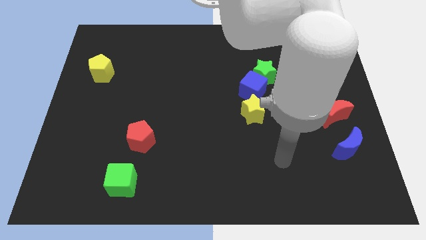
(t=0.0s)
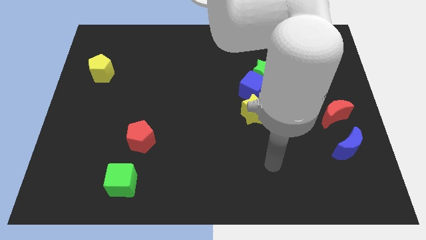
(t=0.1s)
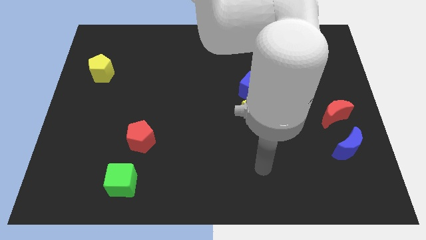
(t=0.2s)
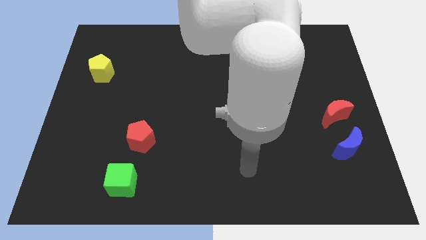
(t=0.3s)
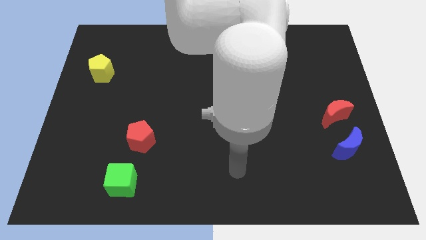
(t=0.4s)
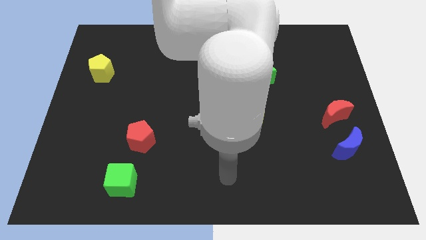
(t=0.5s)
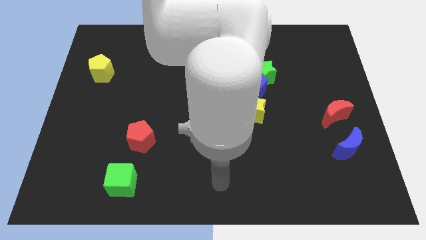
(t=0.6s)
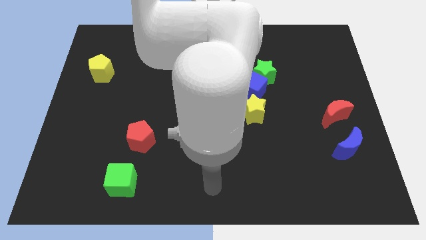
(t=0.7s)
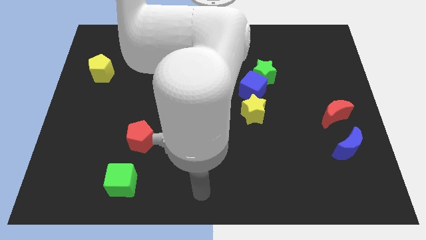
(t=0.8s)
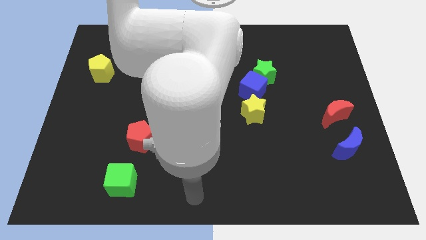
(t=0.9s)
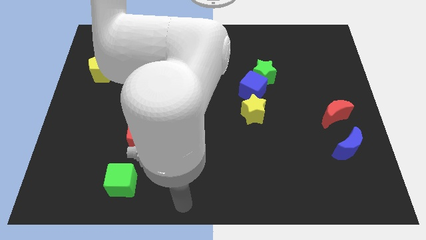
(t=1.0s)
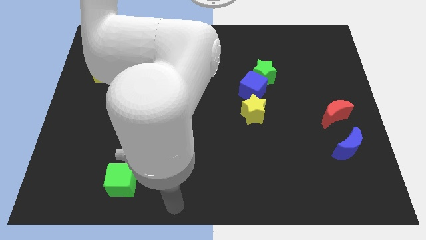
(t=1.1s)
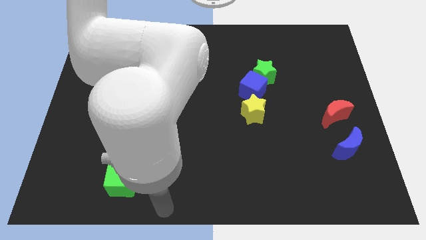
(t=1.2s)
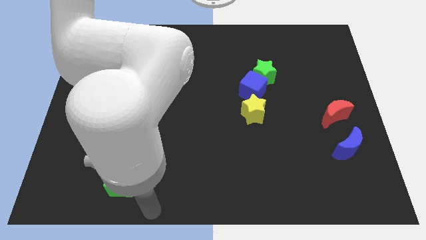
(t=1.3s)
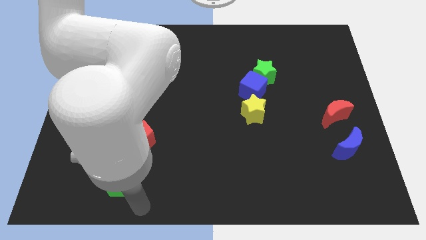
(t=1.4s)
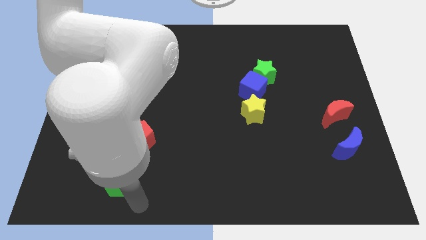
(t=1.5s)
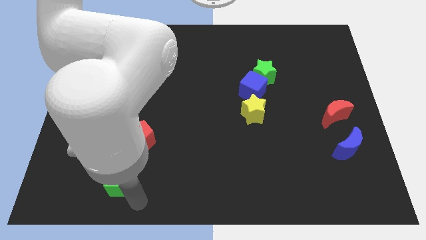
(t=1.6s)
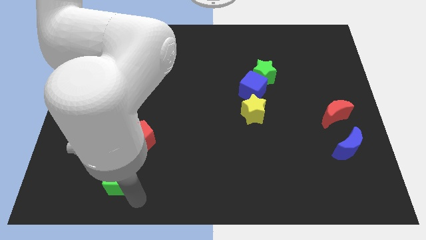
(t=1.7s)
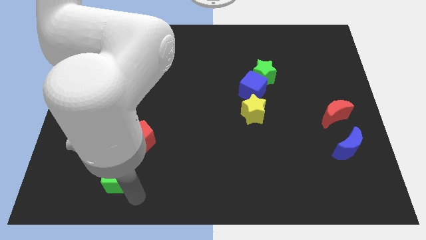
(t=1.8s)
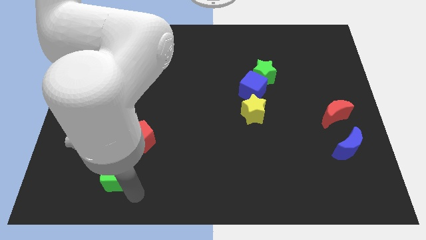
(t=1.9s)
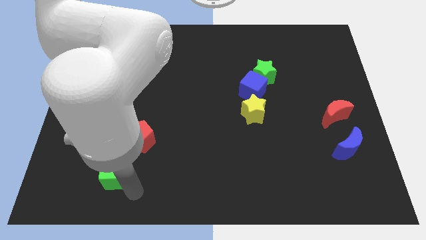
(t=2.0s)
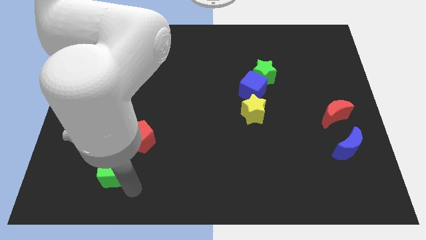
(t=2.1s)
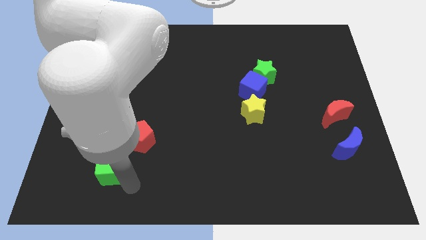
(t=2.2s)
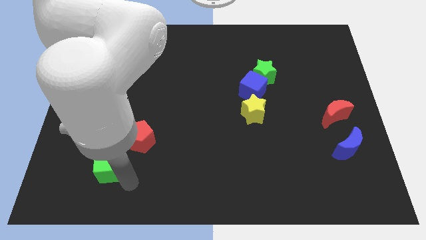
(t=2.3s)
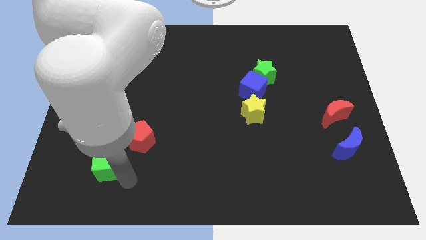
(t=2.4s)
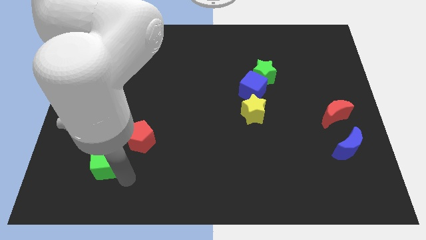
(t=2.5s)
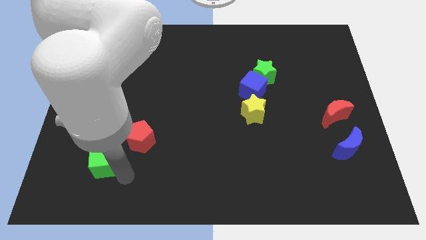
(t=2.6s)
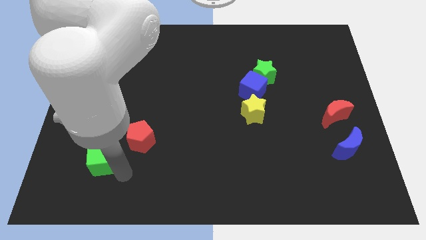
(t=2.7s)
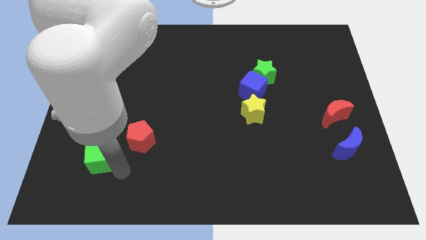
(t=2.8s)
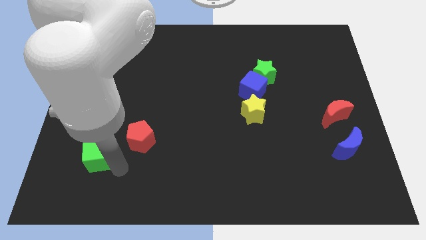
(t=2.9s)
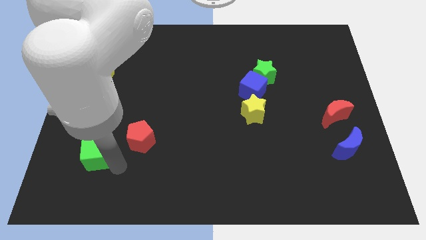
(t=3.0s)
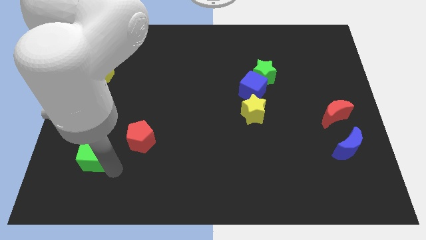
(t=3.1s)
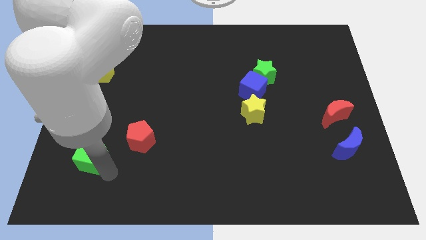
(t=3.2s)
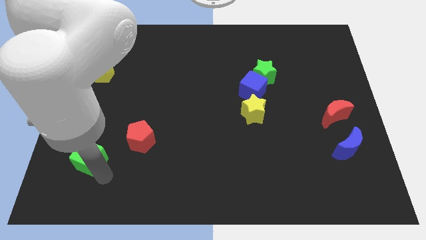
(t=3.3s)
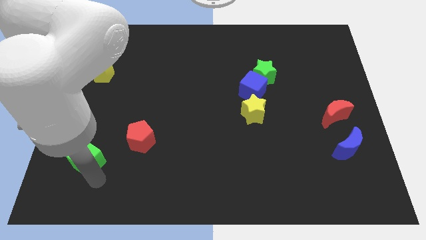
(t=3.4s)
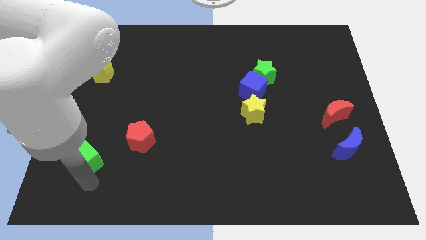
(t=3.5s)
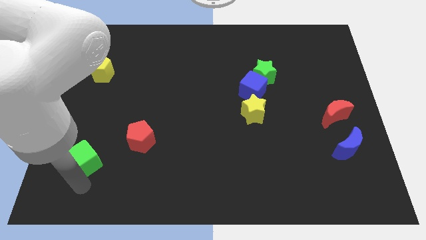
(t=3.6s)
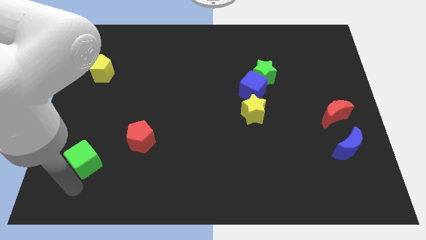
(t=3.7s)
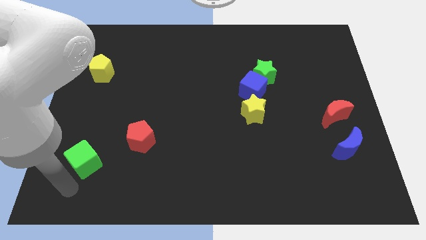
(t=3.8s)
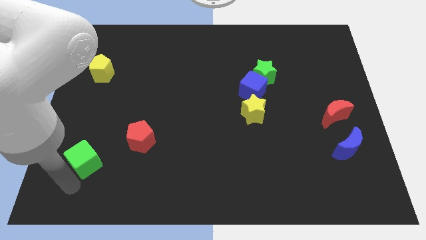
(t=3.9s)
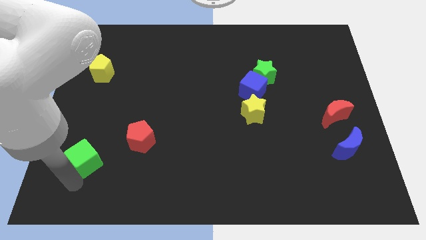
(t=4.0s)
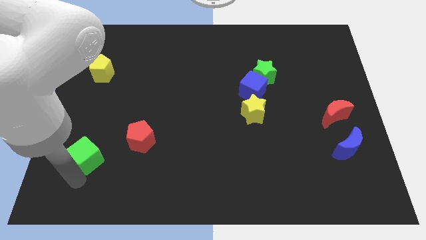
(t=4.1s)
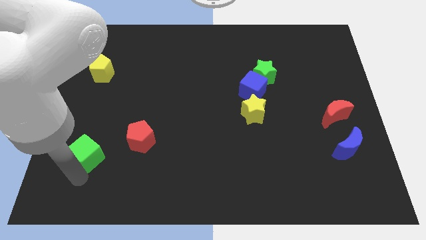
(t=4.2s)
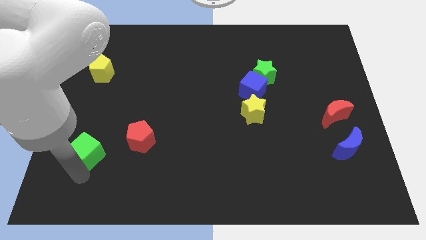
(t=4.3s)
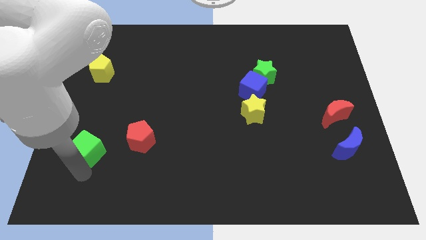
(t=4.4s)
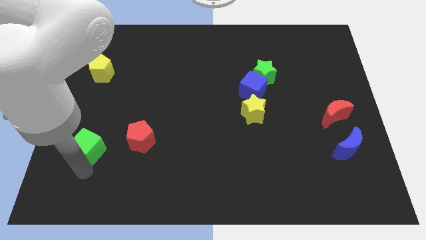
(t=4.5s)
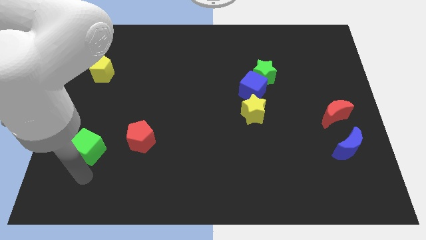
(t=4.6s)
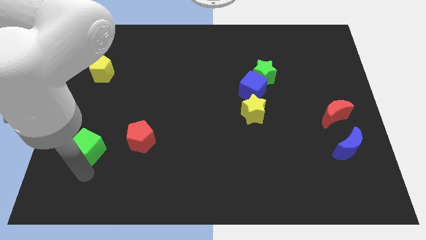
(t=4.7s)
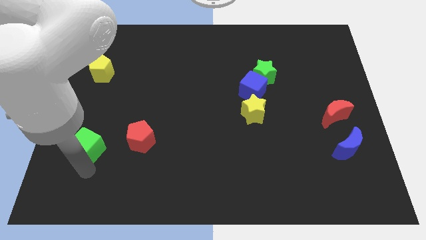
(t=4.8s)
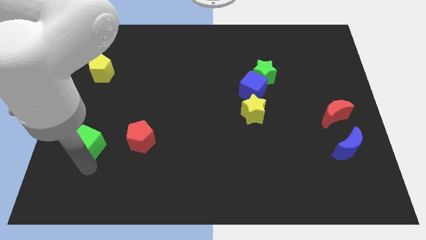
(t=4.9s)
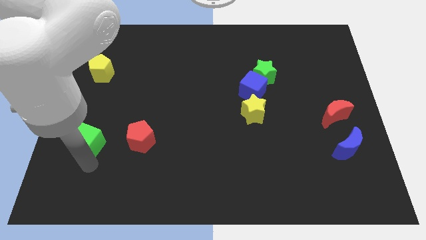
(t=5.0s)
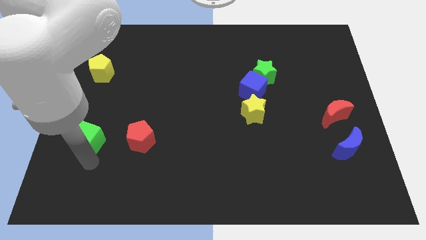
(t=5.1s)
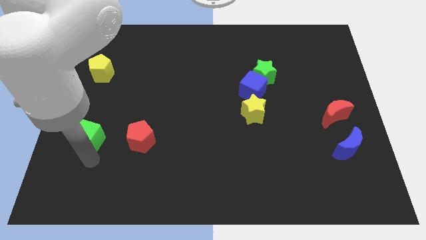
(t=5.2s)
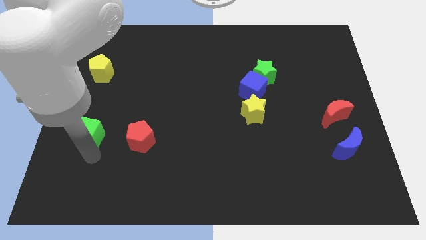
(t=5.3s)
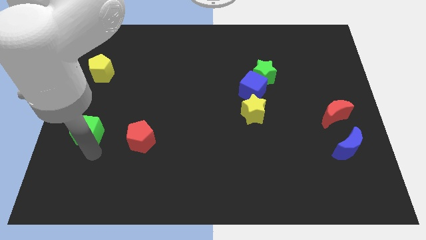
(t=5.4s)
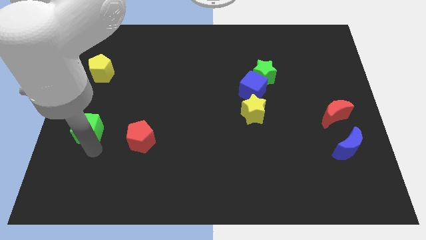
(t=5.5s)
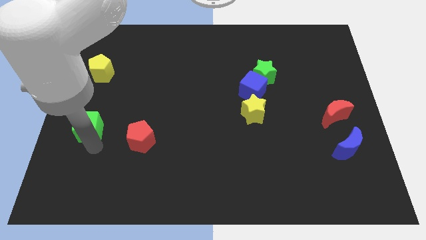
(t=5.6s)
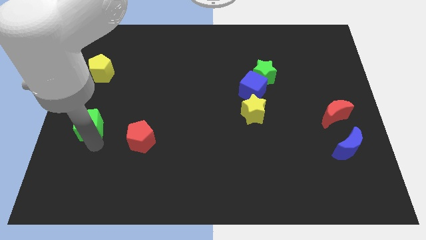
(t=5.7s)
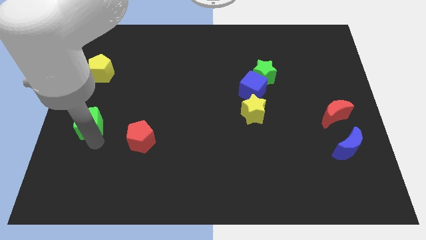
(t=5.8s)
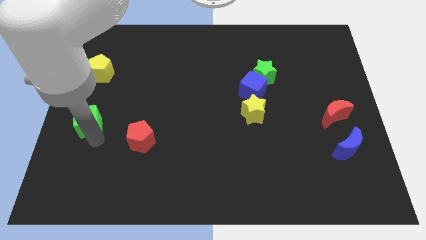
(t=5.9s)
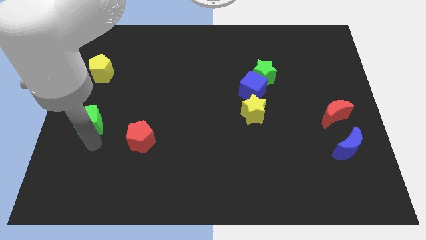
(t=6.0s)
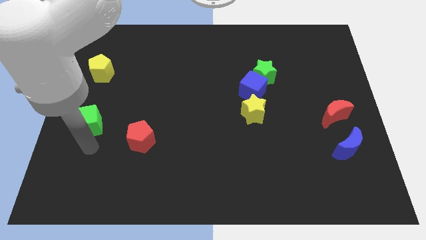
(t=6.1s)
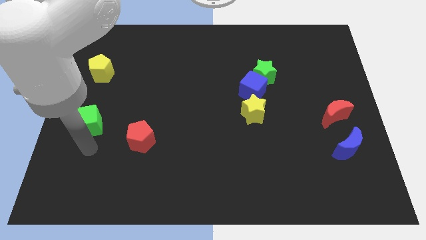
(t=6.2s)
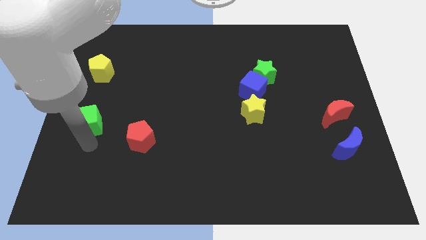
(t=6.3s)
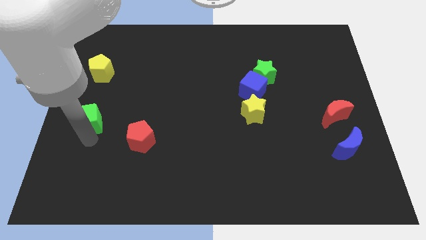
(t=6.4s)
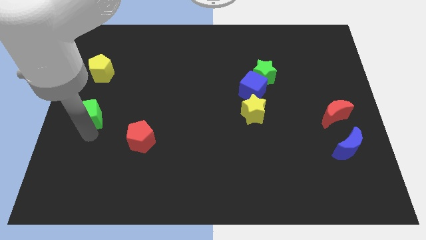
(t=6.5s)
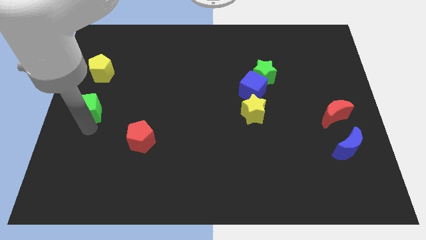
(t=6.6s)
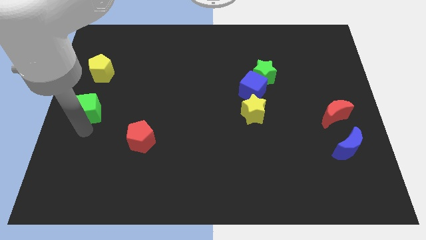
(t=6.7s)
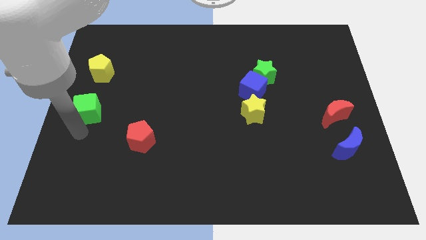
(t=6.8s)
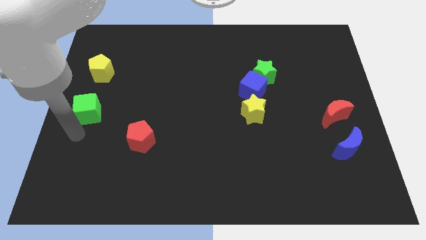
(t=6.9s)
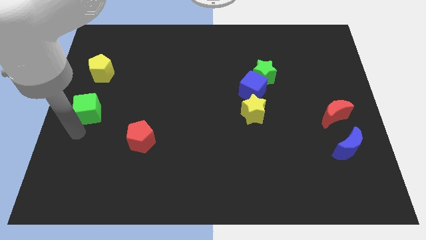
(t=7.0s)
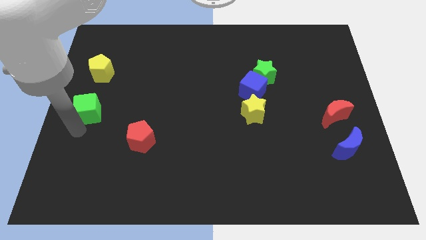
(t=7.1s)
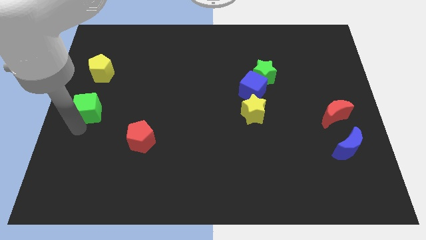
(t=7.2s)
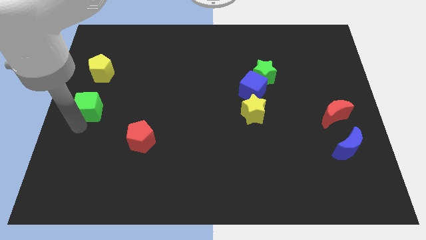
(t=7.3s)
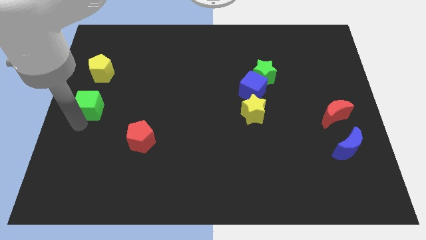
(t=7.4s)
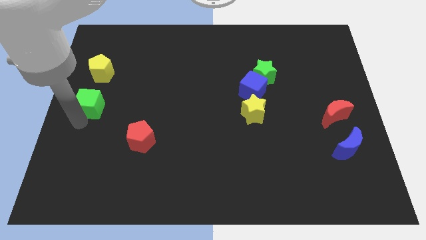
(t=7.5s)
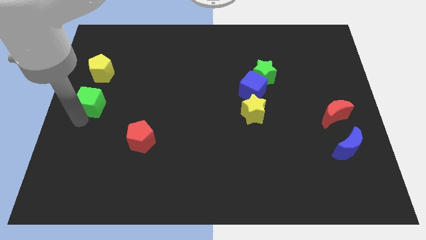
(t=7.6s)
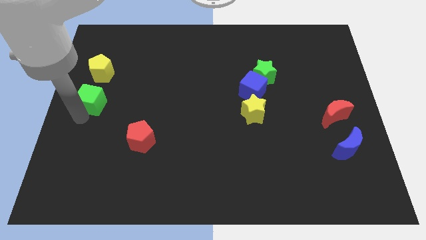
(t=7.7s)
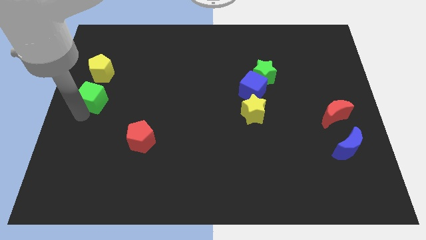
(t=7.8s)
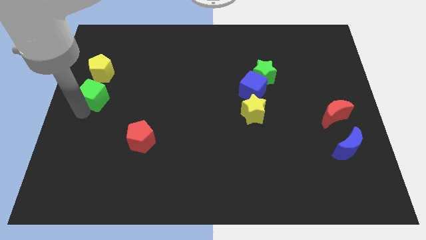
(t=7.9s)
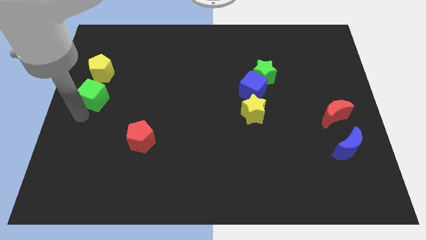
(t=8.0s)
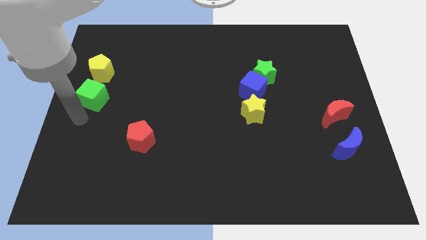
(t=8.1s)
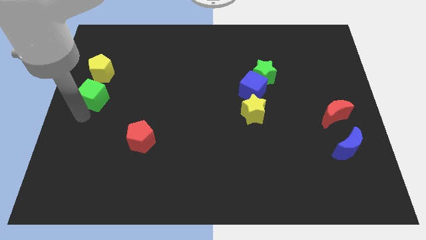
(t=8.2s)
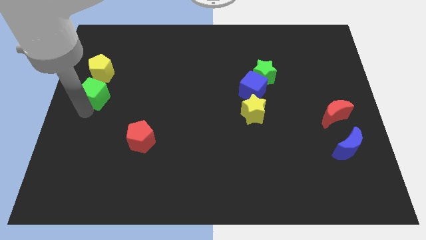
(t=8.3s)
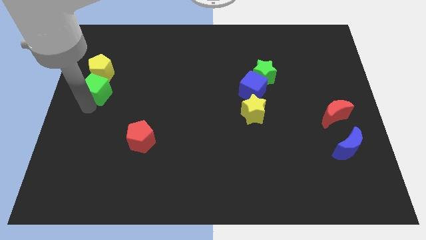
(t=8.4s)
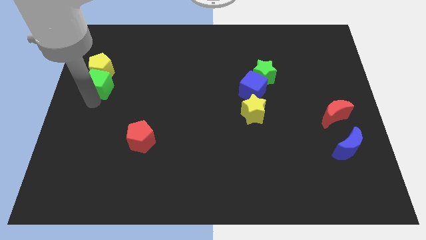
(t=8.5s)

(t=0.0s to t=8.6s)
move the green cube to the yellow pentagon
